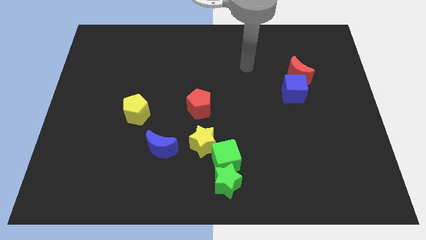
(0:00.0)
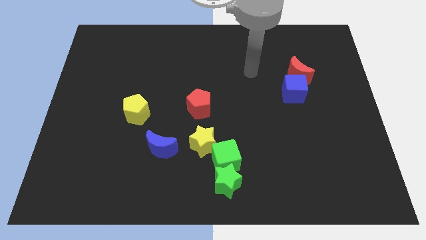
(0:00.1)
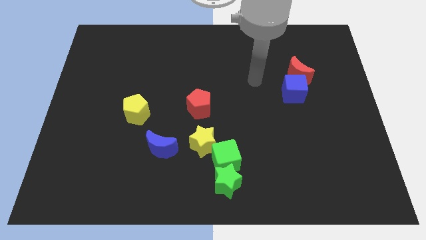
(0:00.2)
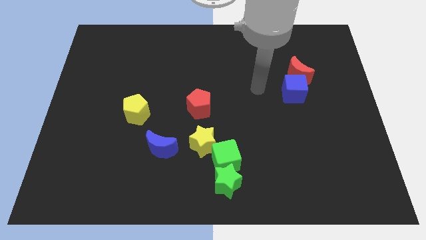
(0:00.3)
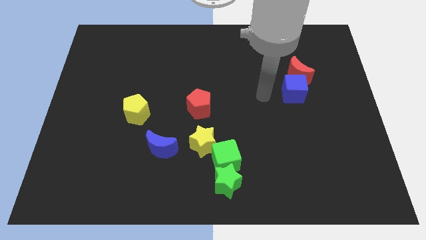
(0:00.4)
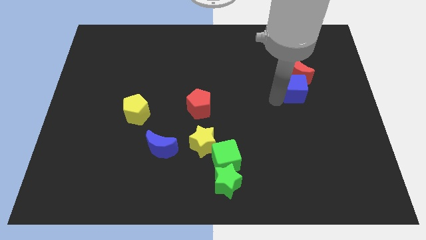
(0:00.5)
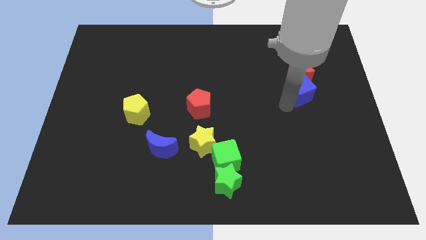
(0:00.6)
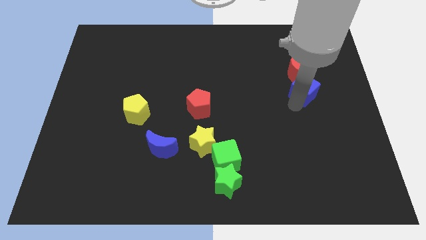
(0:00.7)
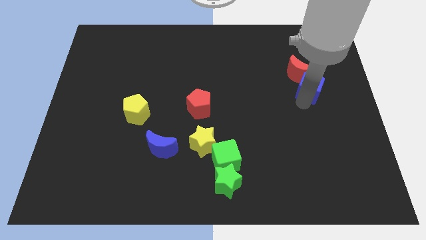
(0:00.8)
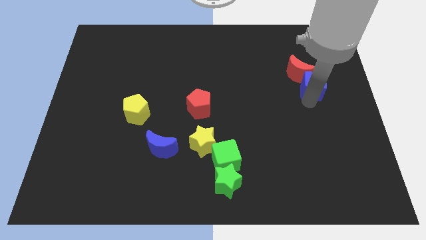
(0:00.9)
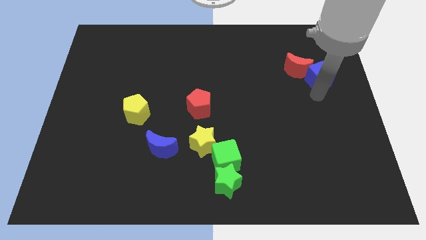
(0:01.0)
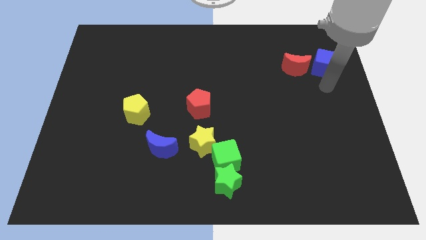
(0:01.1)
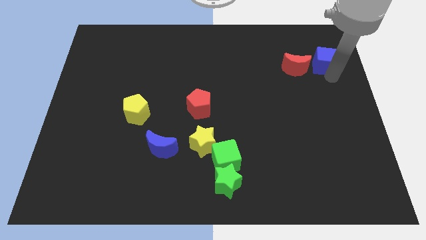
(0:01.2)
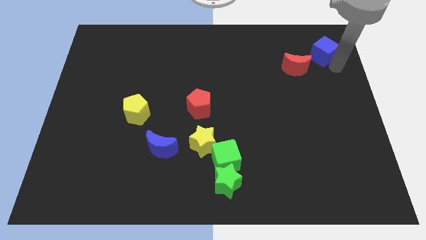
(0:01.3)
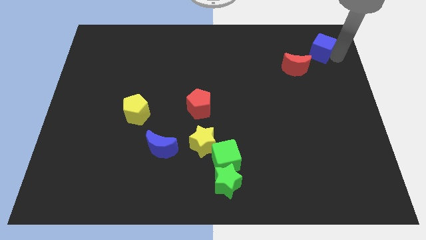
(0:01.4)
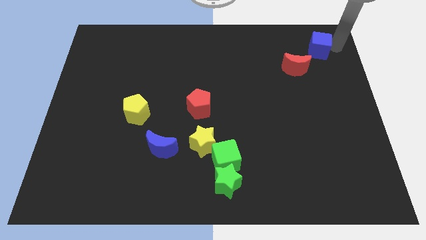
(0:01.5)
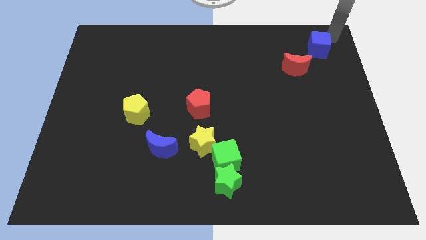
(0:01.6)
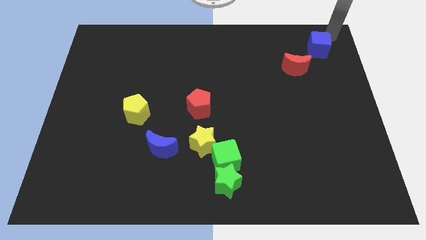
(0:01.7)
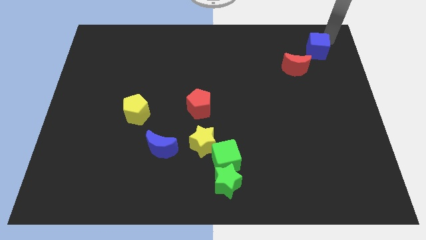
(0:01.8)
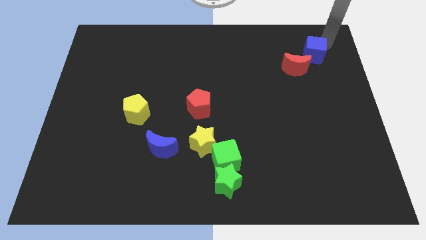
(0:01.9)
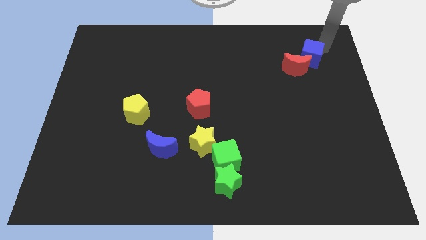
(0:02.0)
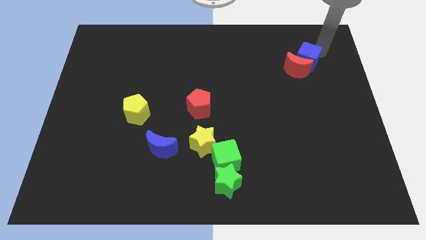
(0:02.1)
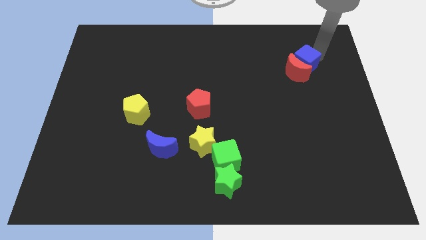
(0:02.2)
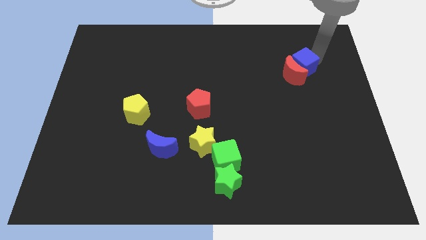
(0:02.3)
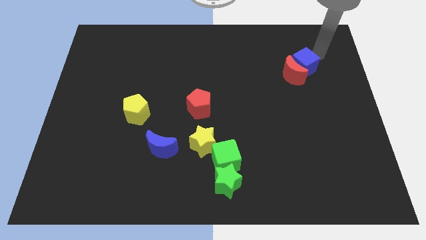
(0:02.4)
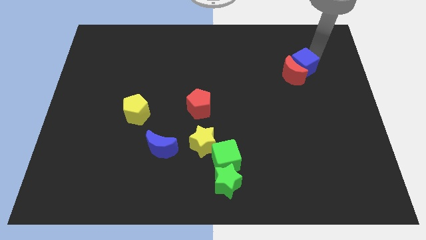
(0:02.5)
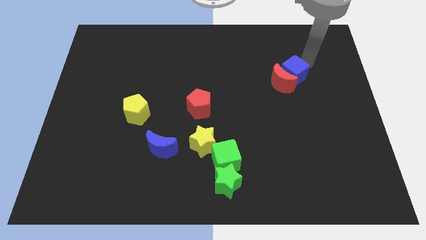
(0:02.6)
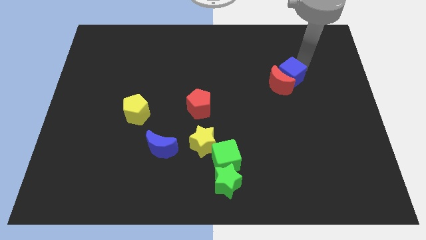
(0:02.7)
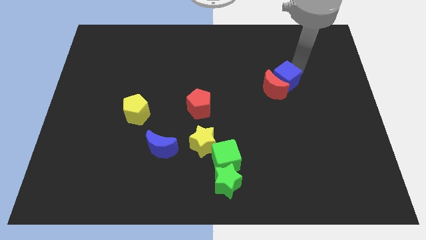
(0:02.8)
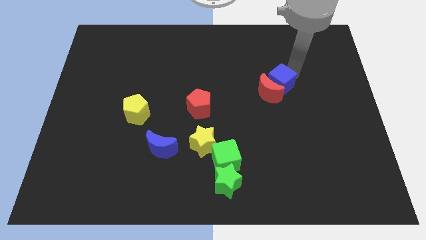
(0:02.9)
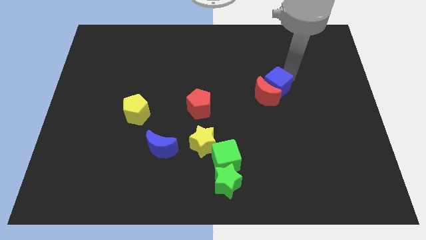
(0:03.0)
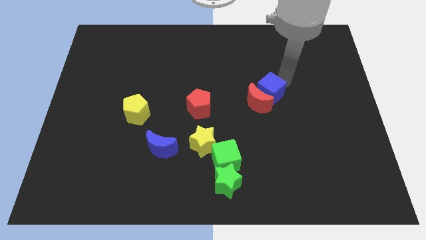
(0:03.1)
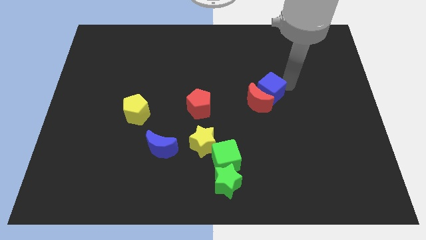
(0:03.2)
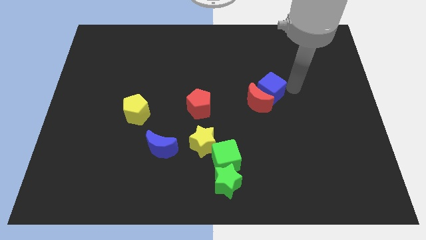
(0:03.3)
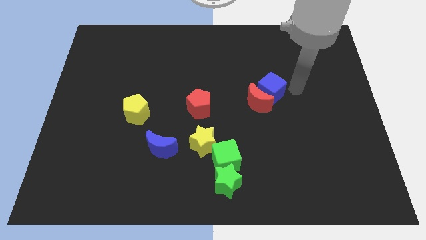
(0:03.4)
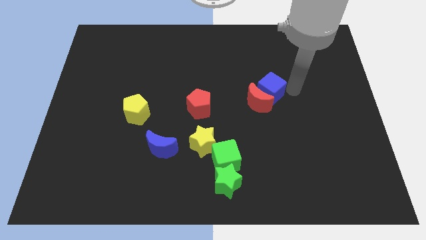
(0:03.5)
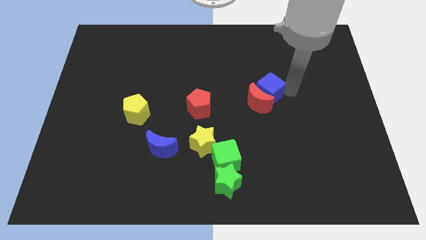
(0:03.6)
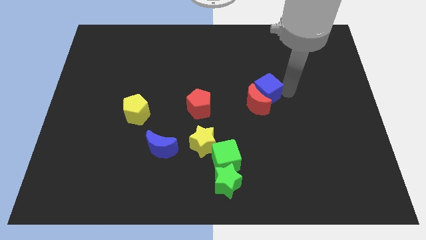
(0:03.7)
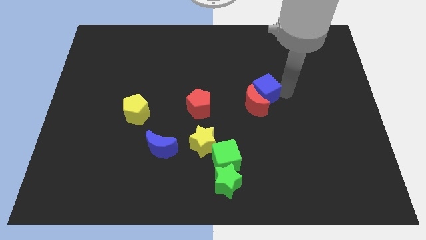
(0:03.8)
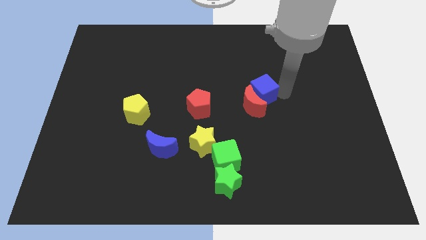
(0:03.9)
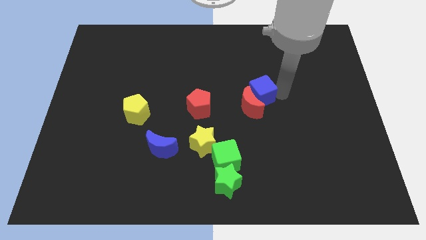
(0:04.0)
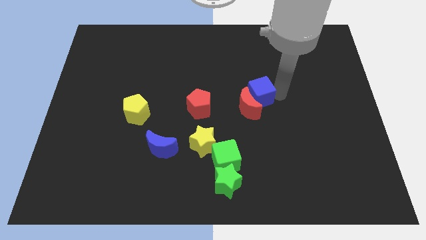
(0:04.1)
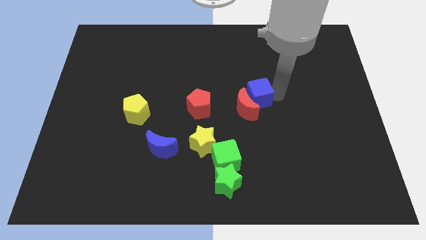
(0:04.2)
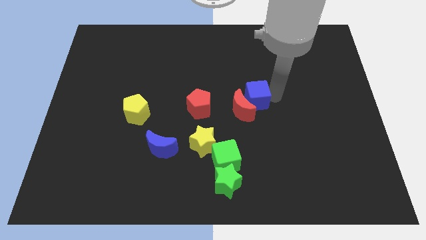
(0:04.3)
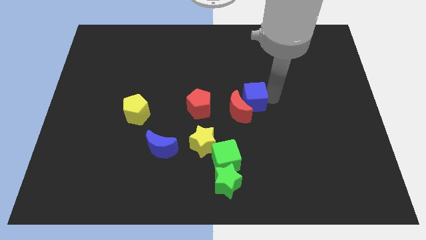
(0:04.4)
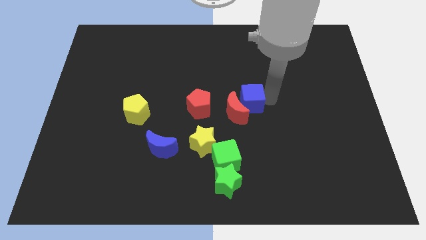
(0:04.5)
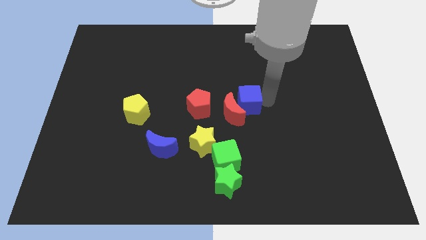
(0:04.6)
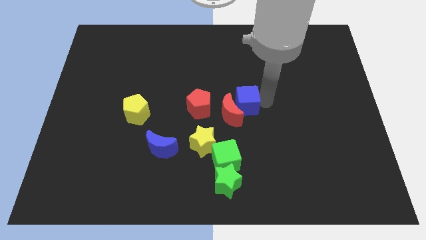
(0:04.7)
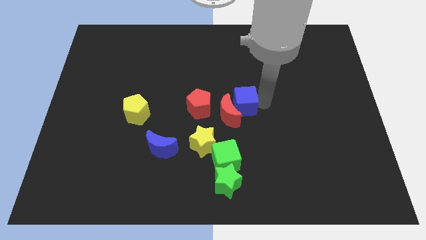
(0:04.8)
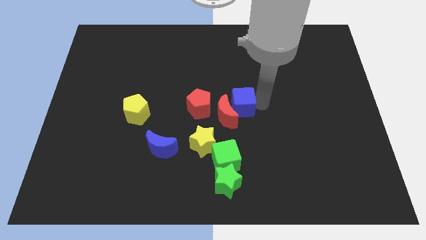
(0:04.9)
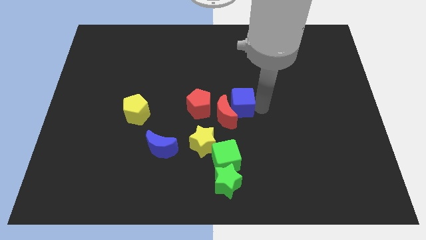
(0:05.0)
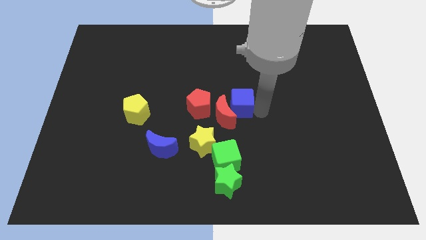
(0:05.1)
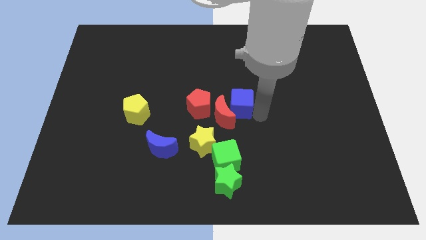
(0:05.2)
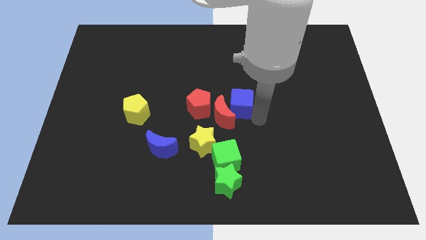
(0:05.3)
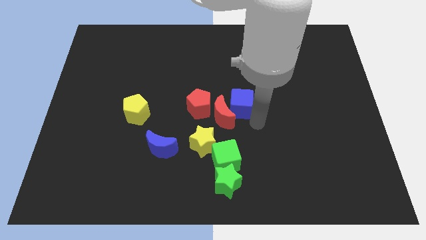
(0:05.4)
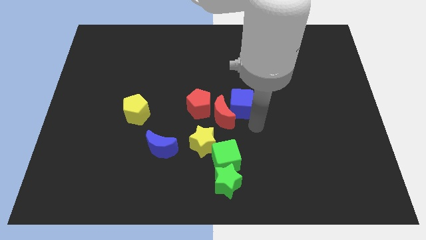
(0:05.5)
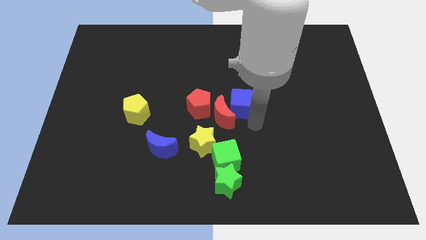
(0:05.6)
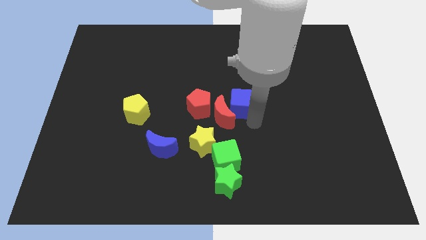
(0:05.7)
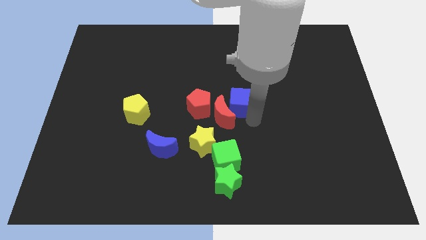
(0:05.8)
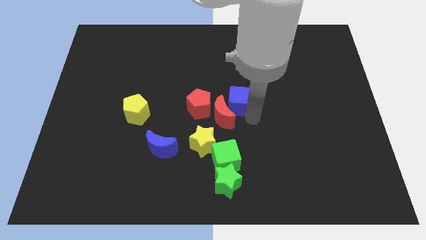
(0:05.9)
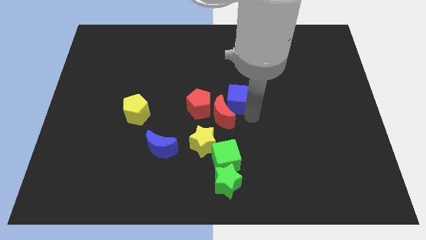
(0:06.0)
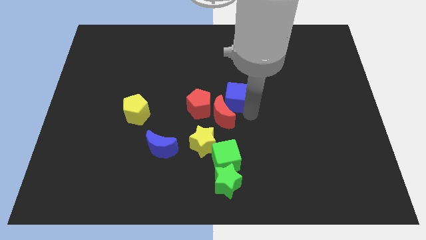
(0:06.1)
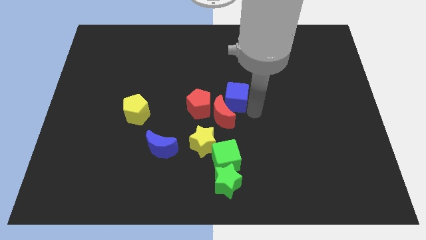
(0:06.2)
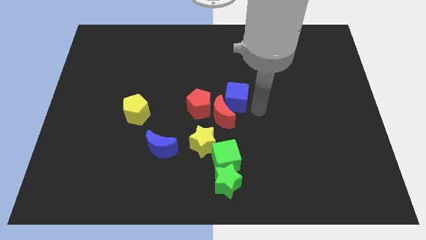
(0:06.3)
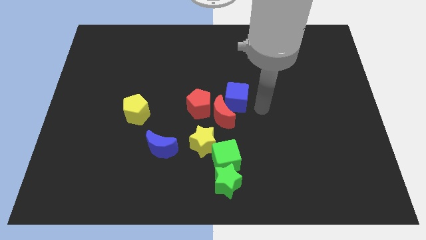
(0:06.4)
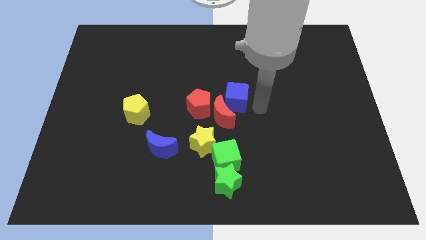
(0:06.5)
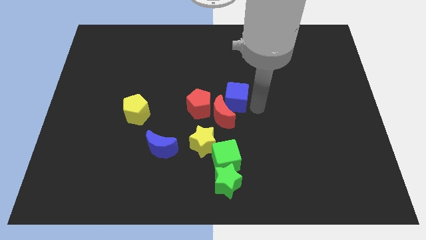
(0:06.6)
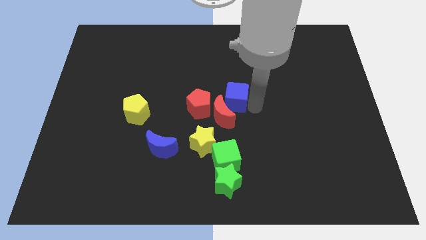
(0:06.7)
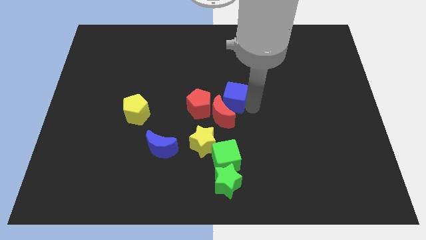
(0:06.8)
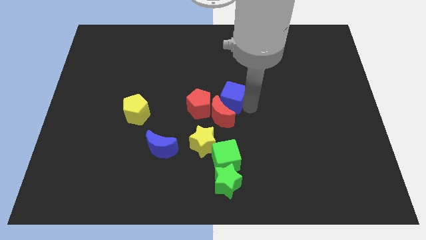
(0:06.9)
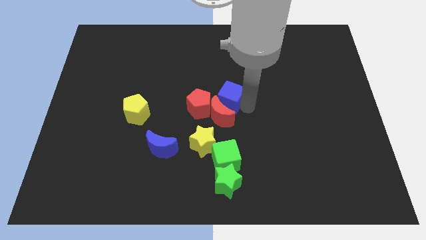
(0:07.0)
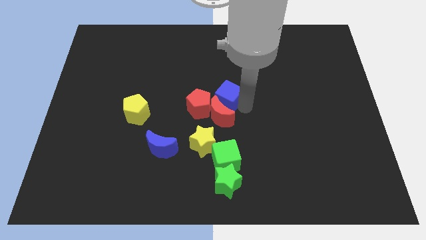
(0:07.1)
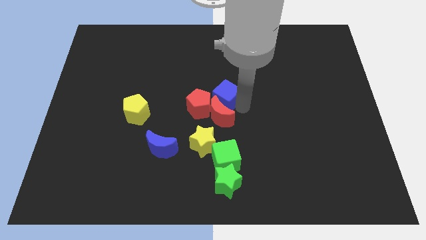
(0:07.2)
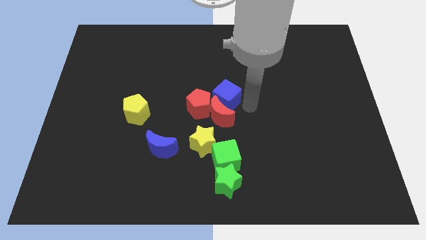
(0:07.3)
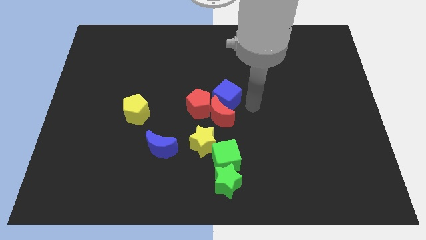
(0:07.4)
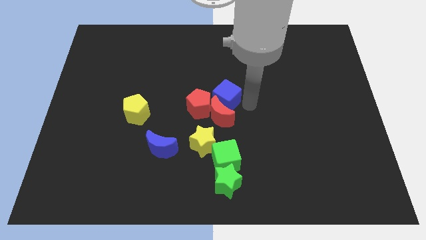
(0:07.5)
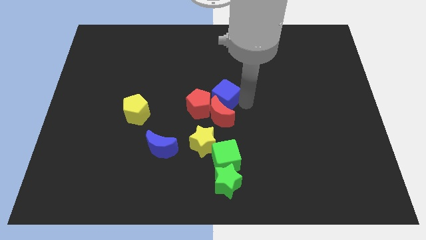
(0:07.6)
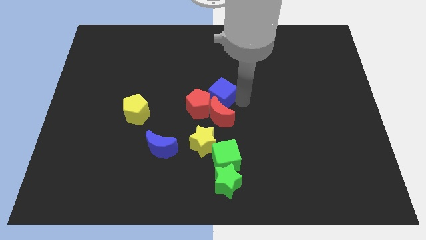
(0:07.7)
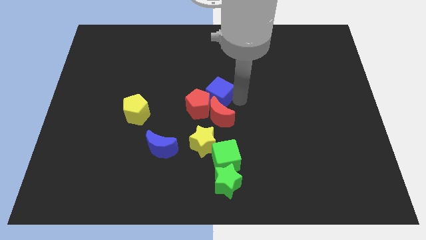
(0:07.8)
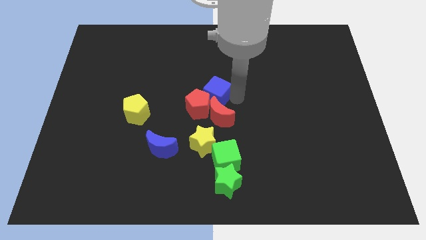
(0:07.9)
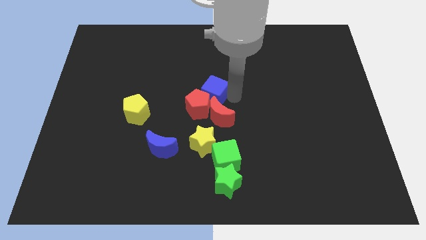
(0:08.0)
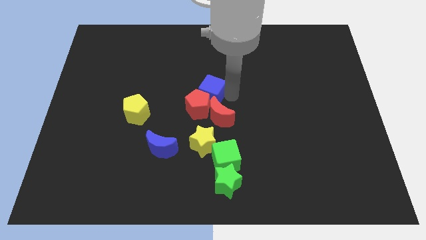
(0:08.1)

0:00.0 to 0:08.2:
move the blue cube to the left
